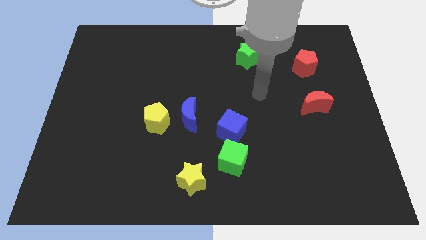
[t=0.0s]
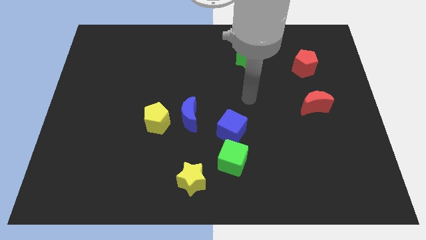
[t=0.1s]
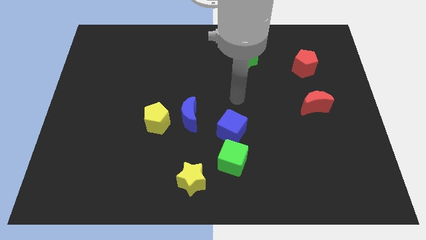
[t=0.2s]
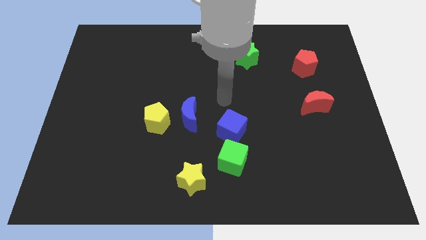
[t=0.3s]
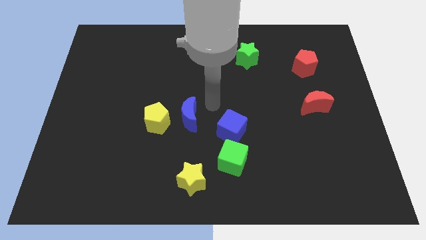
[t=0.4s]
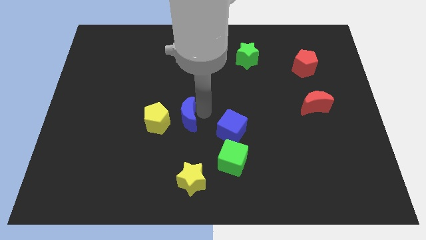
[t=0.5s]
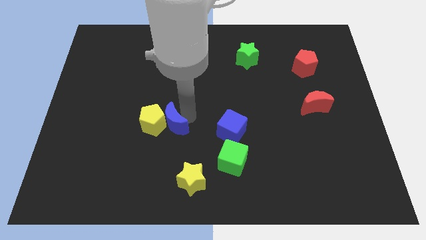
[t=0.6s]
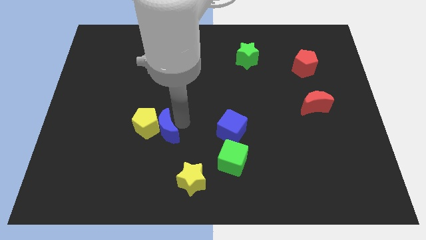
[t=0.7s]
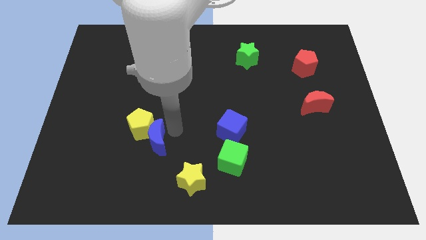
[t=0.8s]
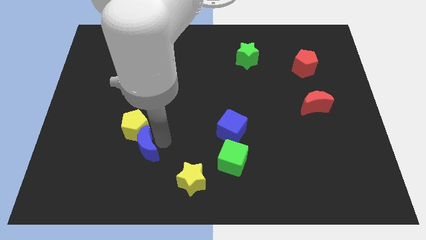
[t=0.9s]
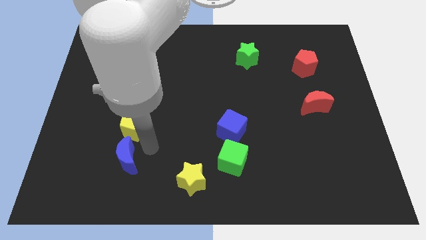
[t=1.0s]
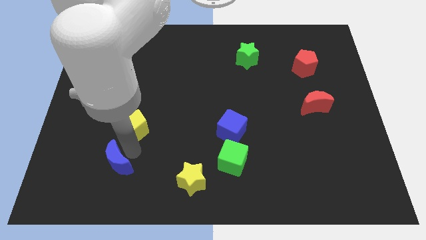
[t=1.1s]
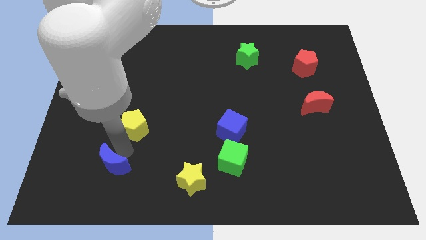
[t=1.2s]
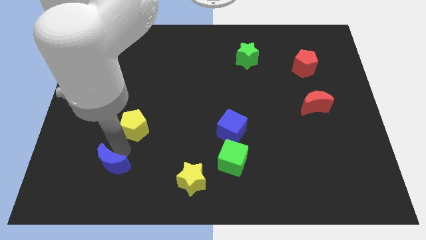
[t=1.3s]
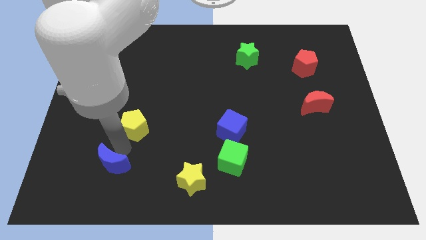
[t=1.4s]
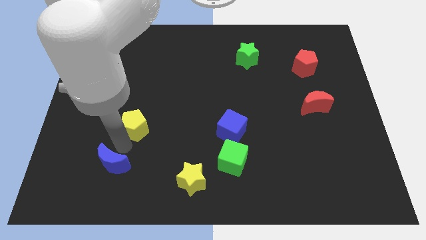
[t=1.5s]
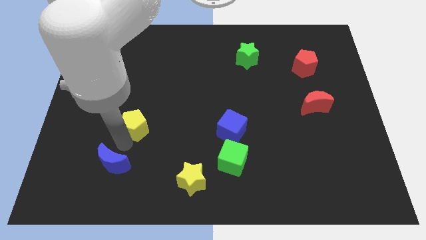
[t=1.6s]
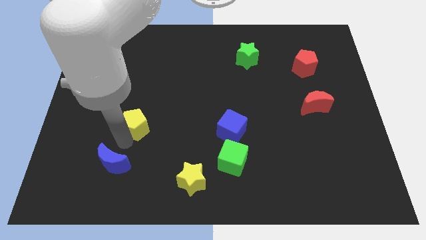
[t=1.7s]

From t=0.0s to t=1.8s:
move the yellow pentagon away from the blue moon

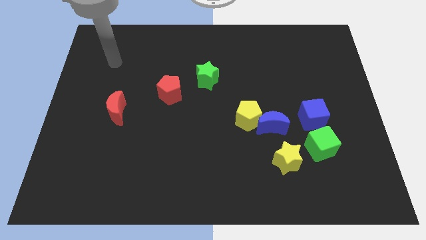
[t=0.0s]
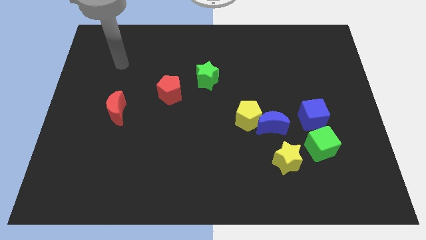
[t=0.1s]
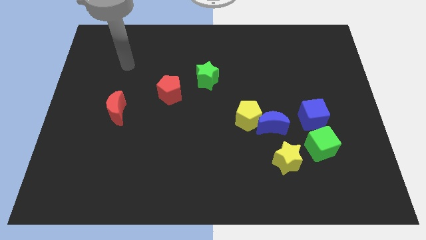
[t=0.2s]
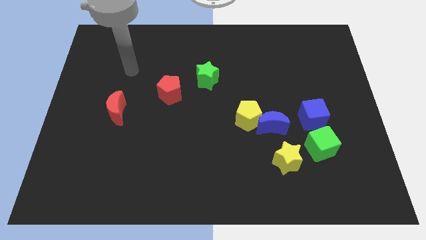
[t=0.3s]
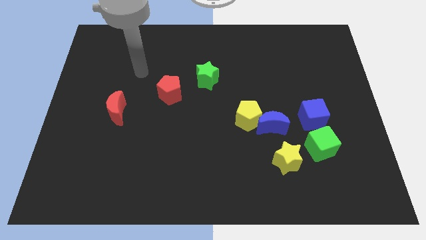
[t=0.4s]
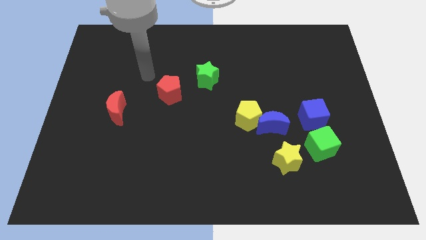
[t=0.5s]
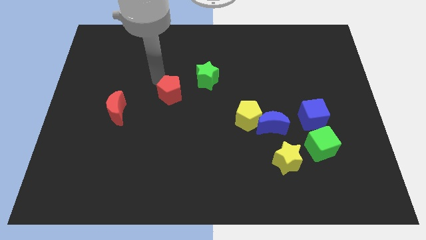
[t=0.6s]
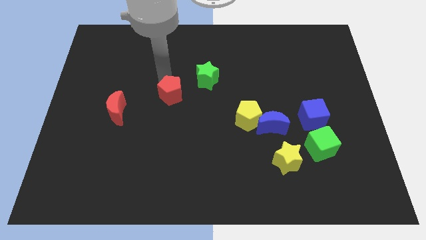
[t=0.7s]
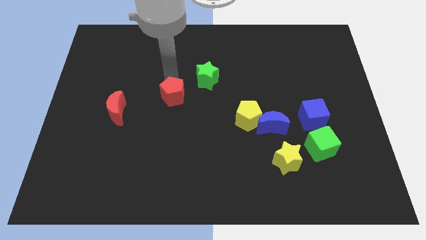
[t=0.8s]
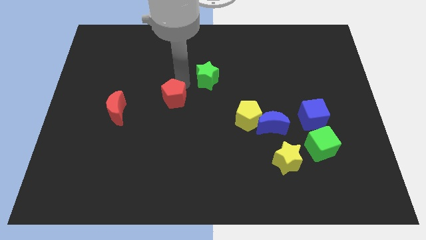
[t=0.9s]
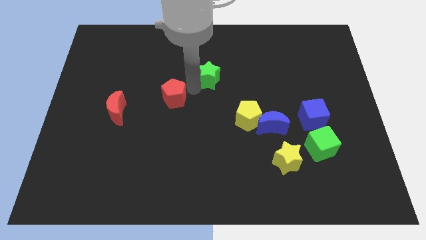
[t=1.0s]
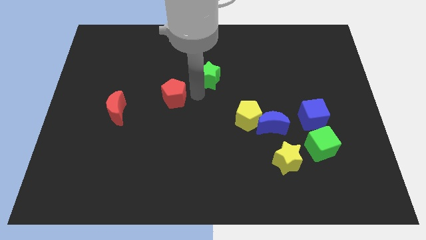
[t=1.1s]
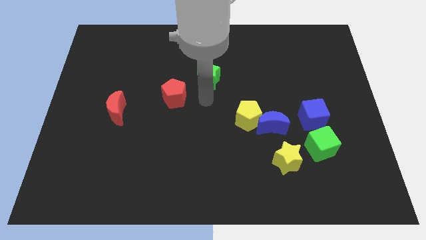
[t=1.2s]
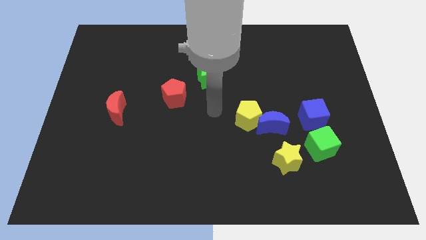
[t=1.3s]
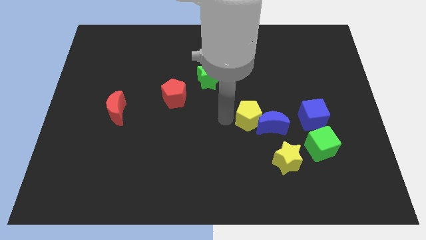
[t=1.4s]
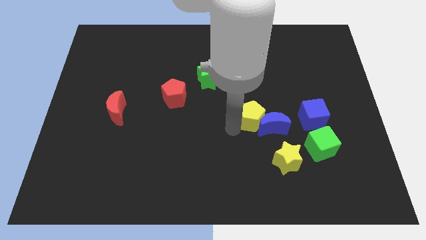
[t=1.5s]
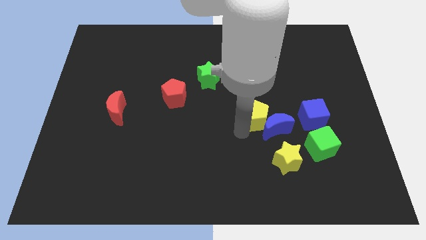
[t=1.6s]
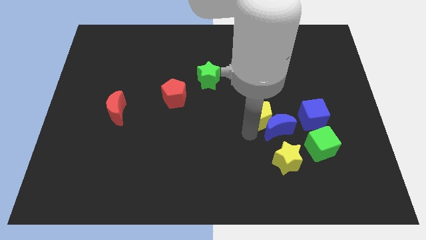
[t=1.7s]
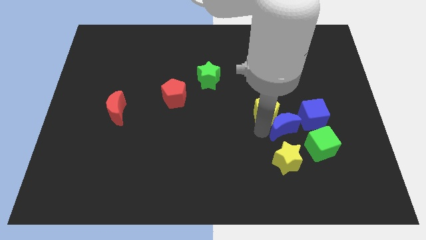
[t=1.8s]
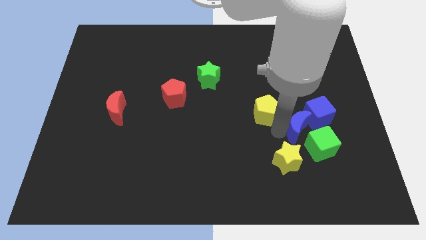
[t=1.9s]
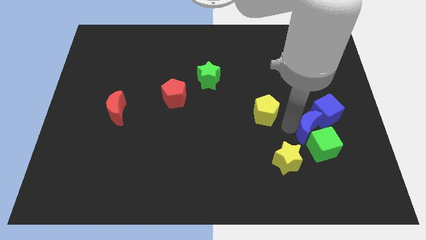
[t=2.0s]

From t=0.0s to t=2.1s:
separate the yellow pentagon from the blue moon

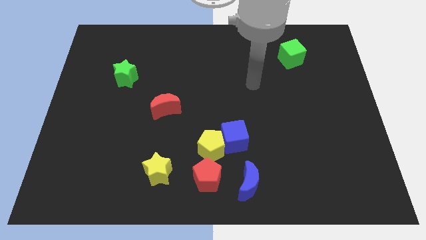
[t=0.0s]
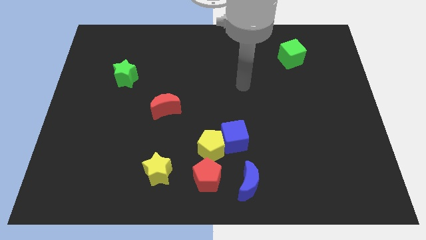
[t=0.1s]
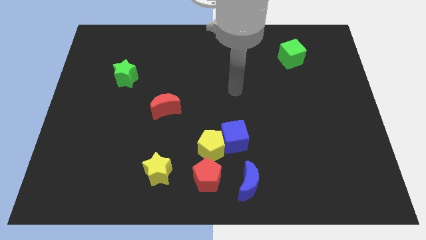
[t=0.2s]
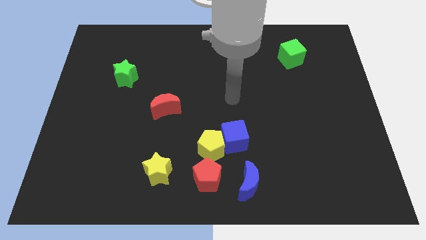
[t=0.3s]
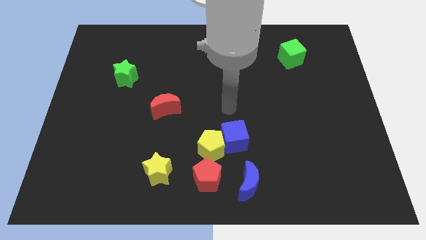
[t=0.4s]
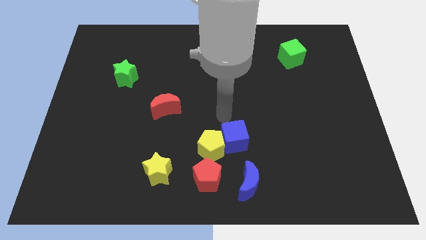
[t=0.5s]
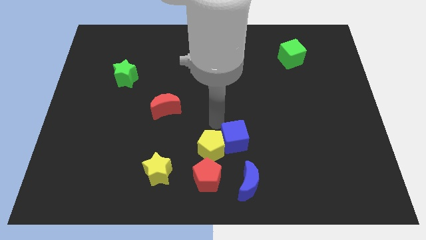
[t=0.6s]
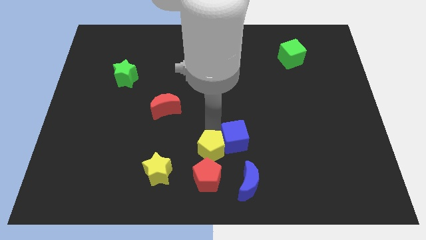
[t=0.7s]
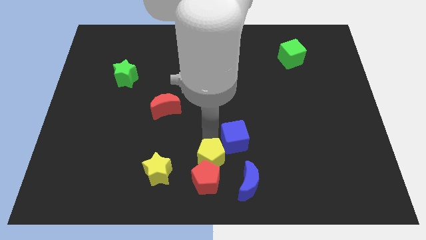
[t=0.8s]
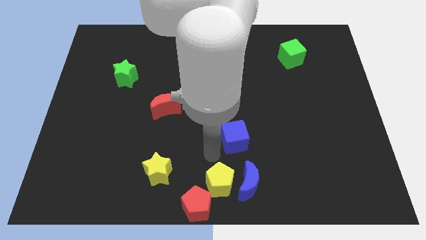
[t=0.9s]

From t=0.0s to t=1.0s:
pull the blue cube apart from the yellow pentagon

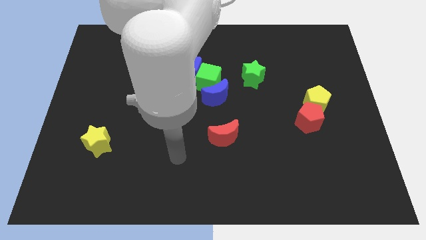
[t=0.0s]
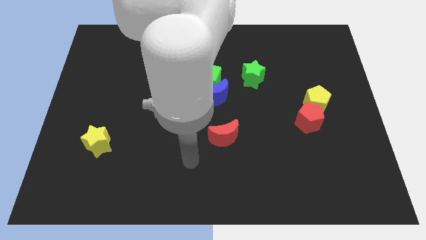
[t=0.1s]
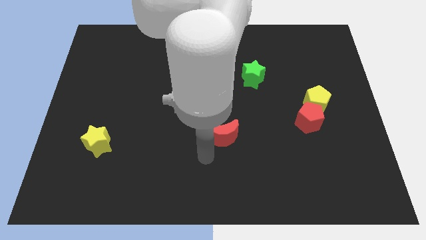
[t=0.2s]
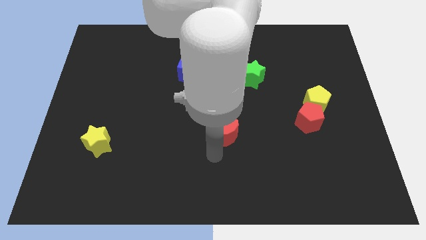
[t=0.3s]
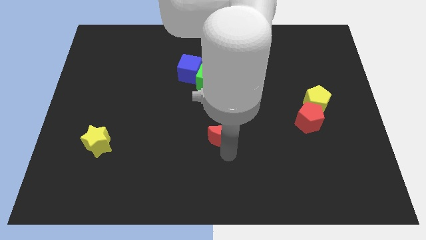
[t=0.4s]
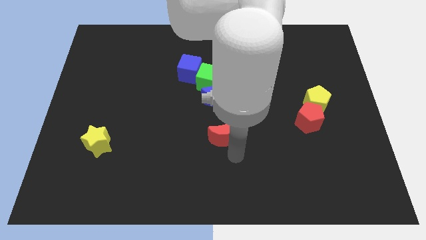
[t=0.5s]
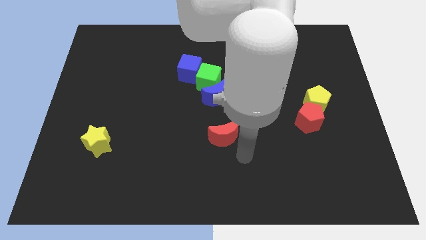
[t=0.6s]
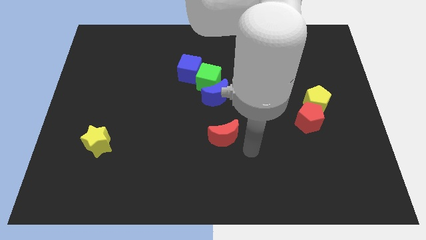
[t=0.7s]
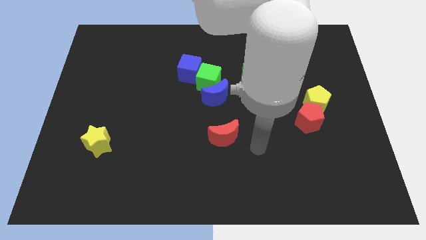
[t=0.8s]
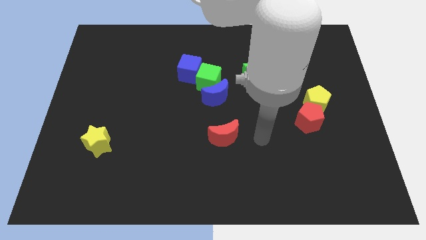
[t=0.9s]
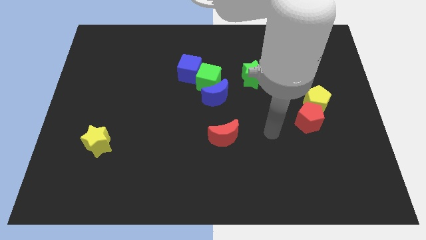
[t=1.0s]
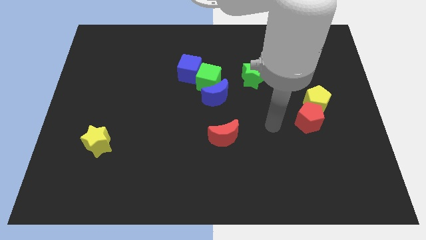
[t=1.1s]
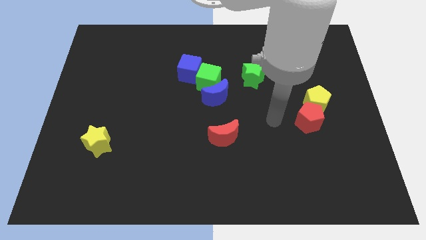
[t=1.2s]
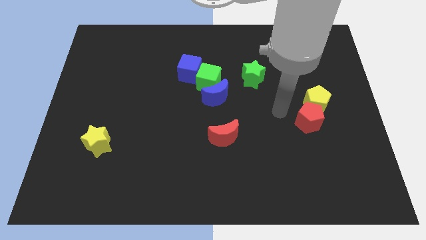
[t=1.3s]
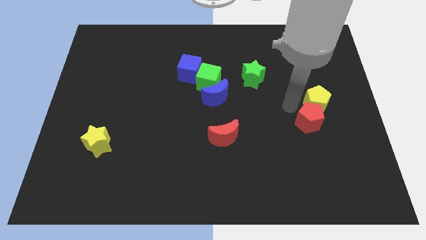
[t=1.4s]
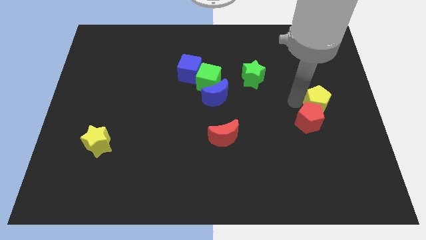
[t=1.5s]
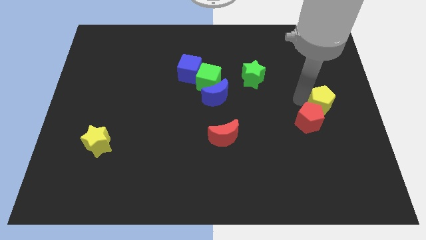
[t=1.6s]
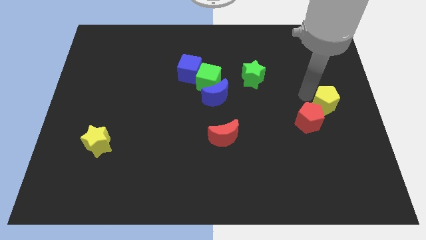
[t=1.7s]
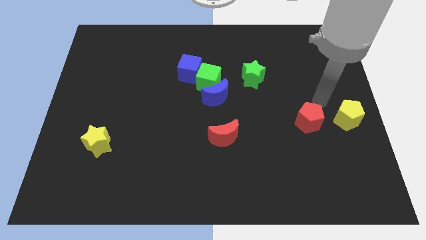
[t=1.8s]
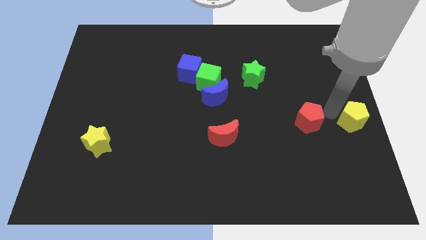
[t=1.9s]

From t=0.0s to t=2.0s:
move the red pentagon away from the yellow pentagon

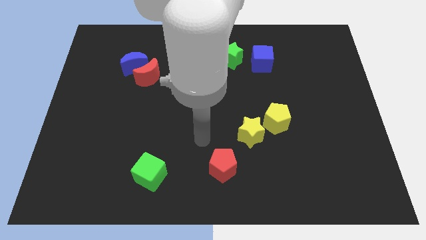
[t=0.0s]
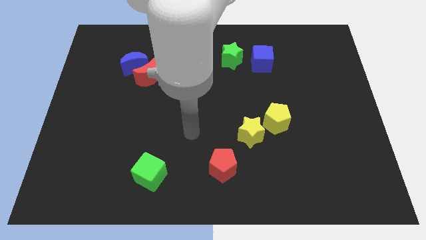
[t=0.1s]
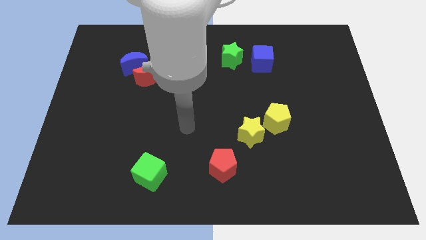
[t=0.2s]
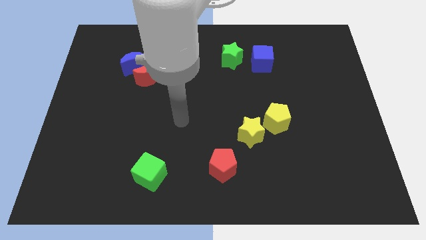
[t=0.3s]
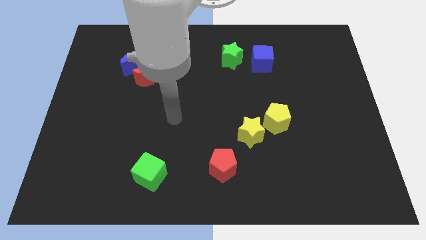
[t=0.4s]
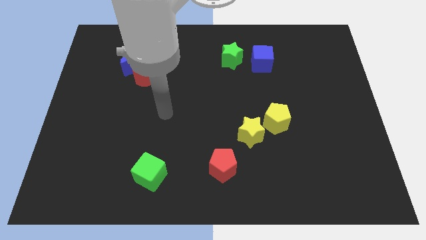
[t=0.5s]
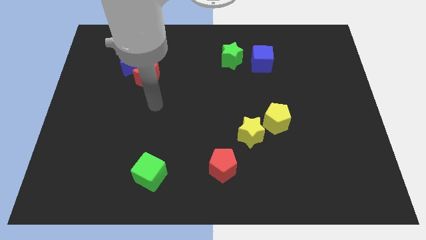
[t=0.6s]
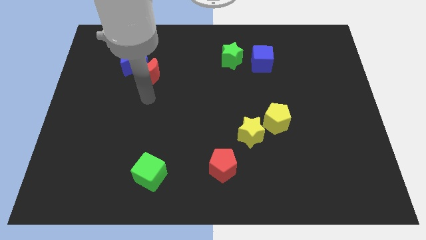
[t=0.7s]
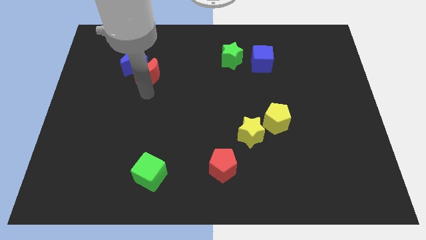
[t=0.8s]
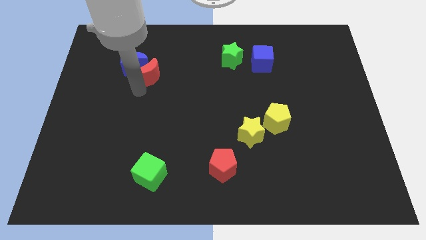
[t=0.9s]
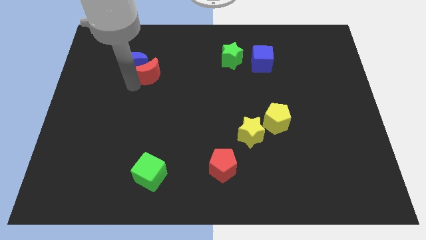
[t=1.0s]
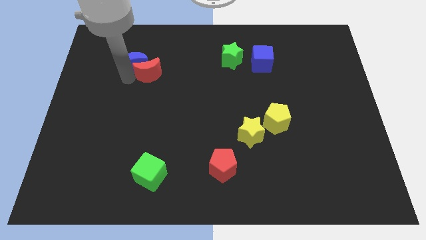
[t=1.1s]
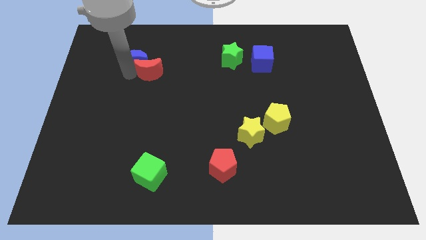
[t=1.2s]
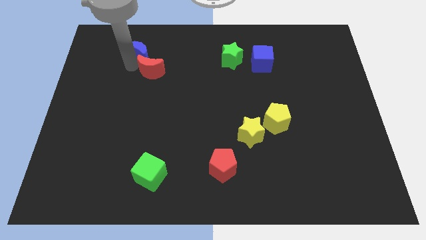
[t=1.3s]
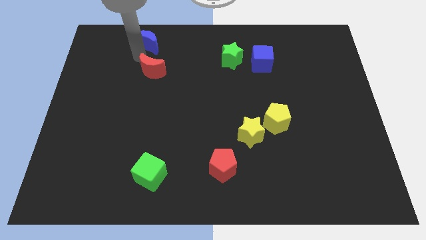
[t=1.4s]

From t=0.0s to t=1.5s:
move the red moon away from the blue moon

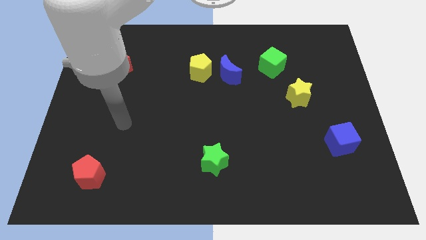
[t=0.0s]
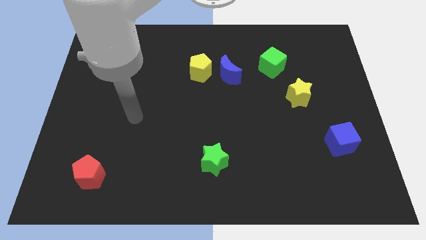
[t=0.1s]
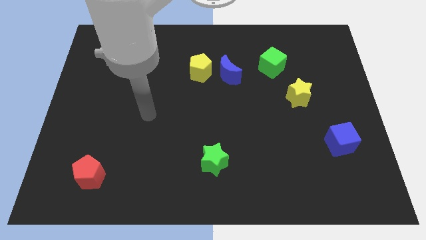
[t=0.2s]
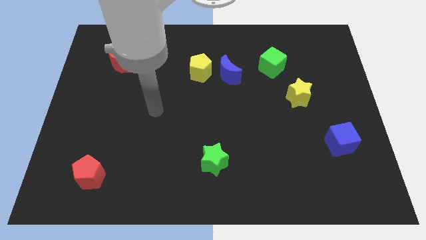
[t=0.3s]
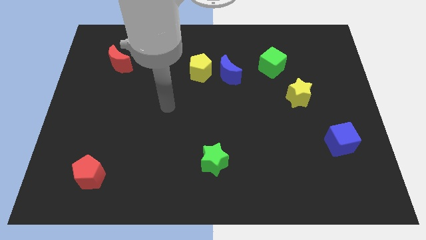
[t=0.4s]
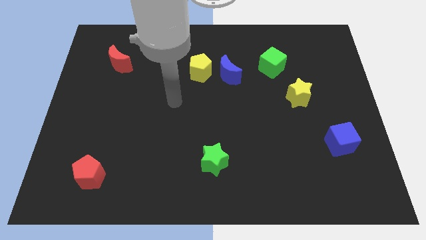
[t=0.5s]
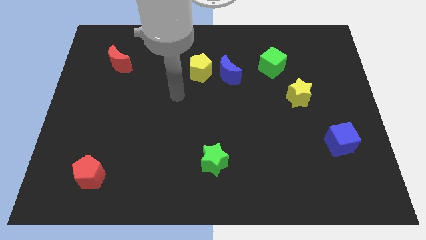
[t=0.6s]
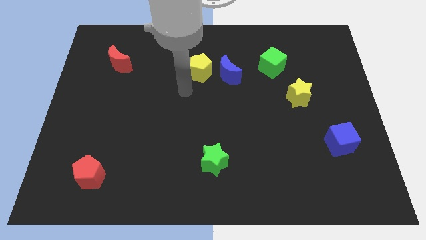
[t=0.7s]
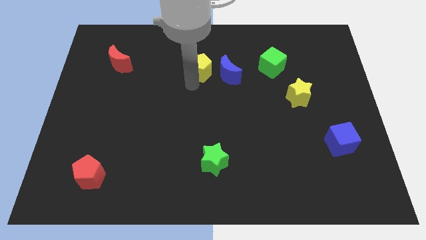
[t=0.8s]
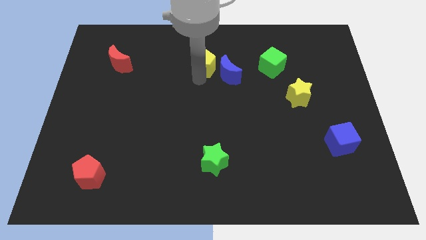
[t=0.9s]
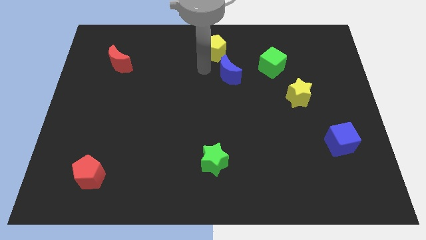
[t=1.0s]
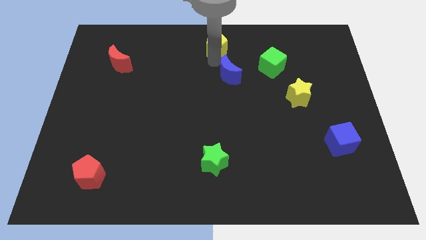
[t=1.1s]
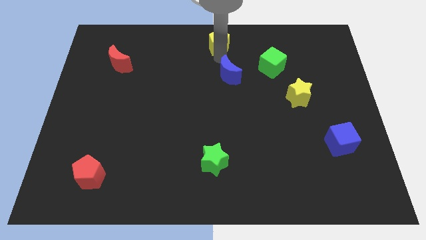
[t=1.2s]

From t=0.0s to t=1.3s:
pull the blue moon apart from the yellow pentagon
